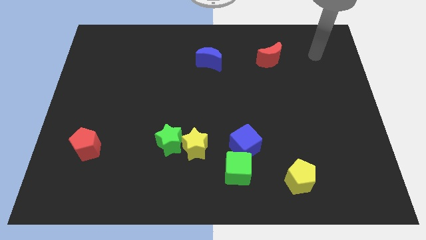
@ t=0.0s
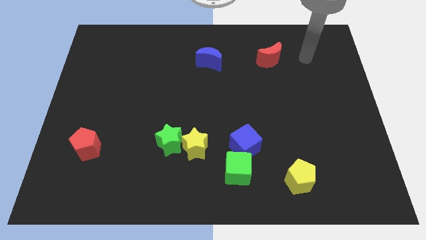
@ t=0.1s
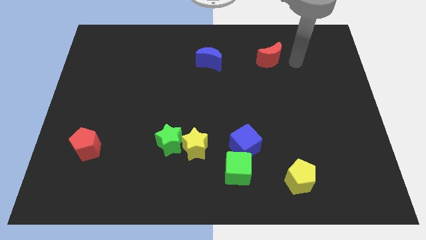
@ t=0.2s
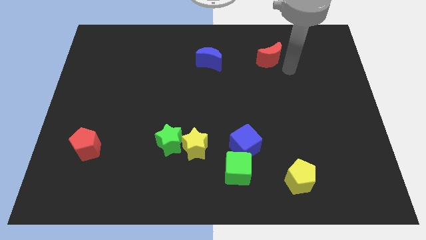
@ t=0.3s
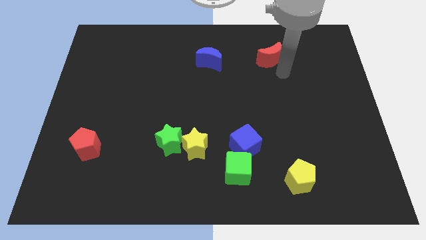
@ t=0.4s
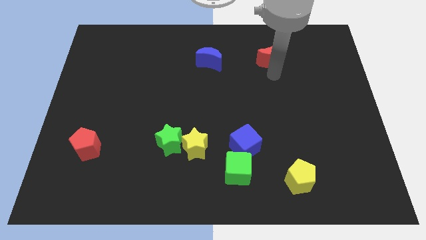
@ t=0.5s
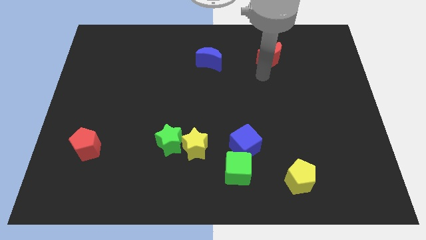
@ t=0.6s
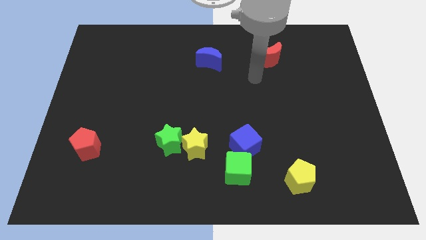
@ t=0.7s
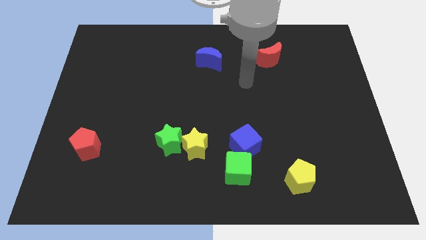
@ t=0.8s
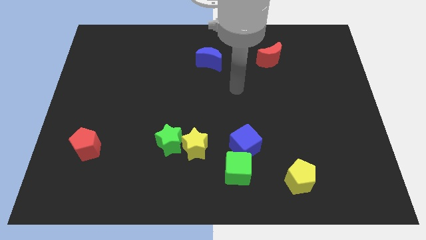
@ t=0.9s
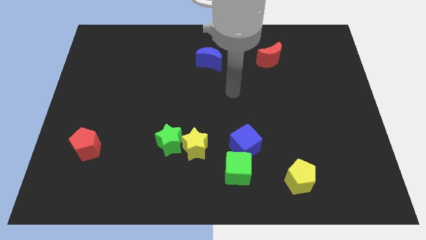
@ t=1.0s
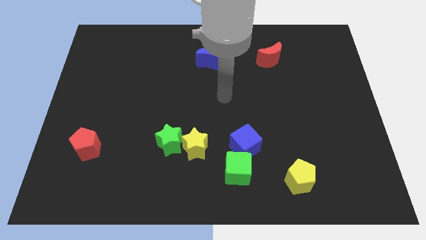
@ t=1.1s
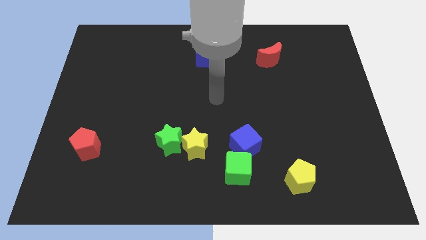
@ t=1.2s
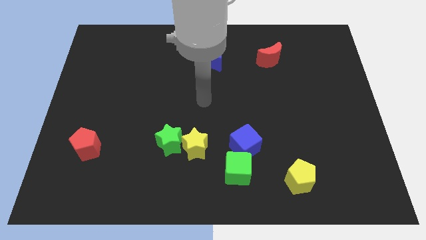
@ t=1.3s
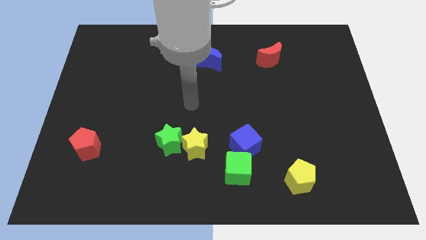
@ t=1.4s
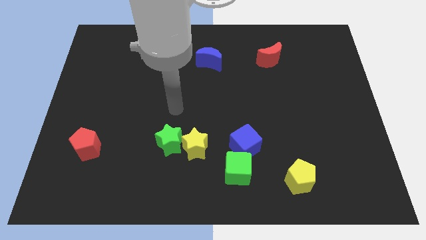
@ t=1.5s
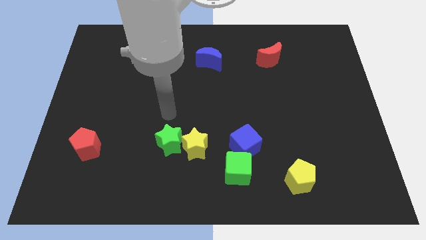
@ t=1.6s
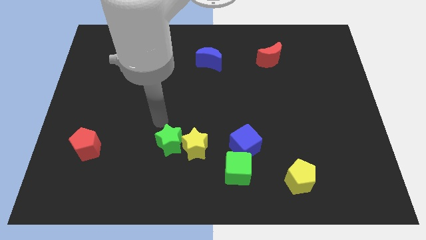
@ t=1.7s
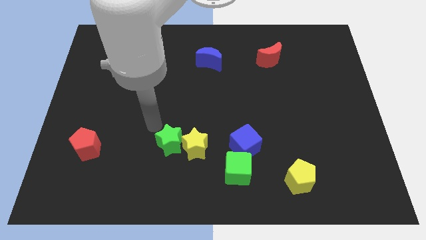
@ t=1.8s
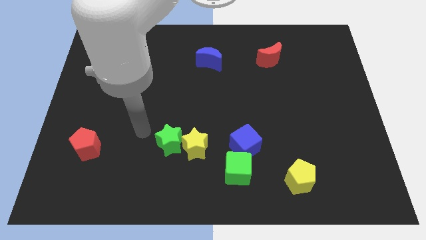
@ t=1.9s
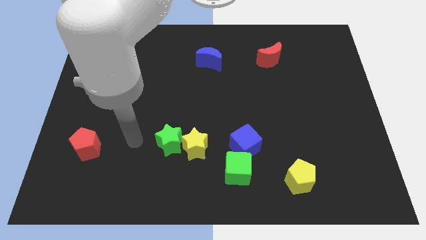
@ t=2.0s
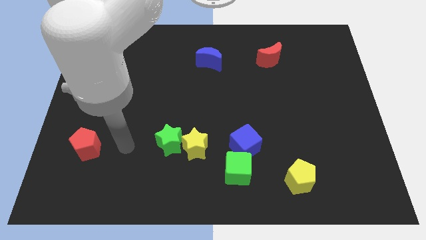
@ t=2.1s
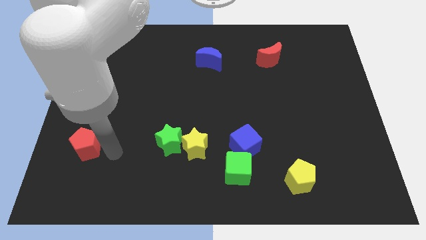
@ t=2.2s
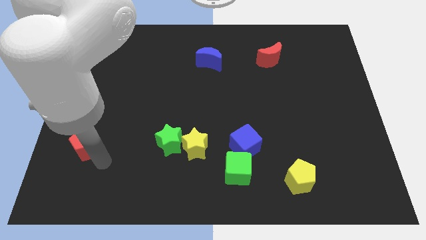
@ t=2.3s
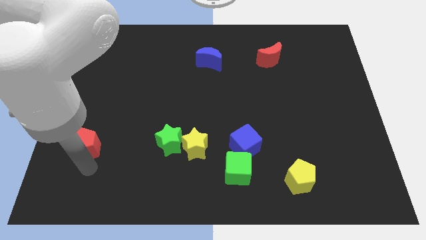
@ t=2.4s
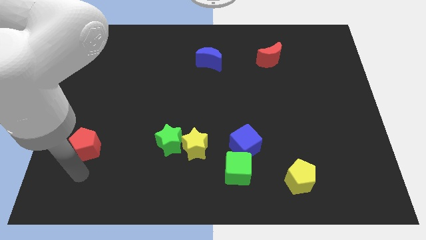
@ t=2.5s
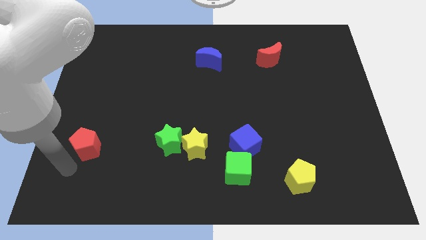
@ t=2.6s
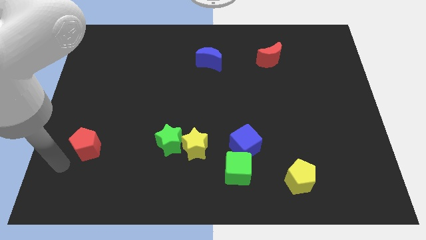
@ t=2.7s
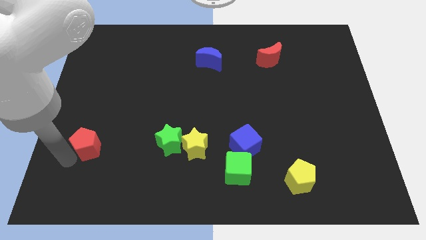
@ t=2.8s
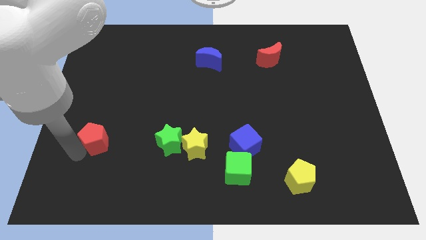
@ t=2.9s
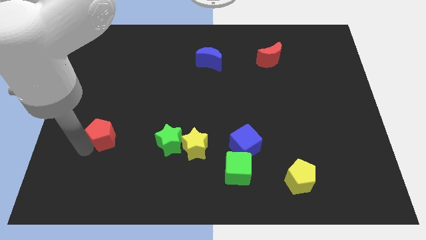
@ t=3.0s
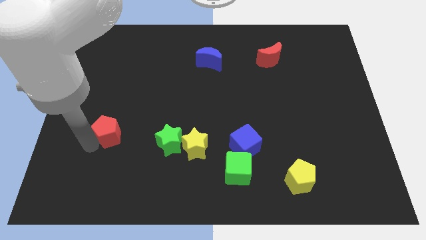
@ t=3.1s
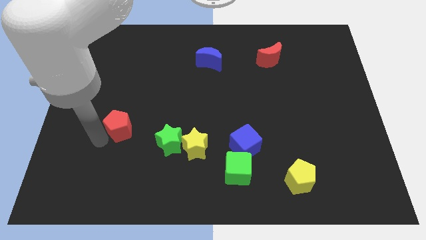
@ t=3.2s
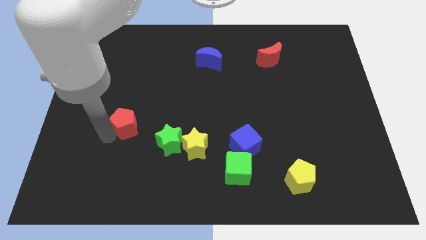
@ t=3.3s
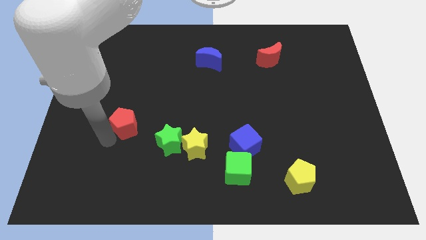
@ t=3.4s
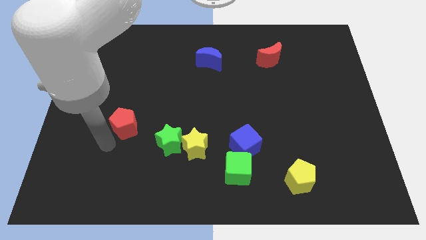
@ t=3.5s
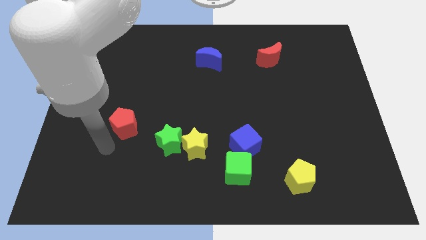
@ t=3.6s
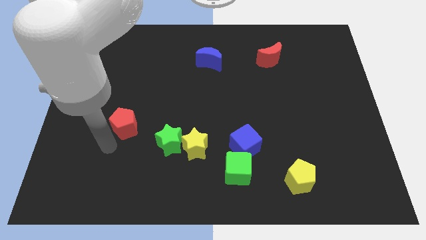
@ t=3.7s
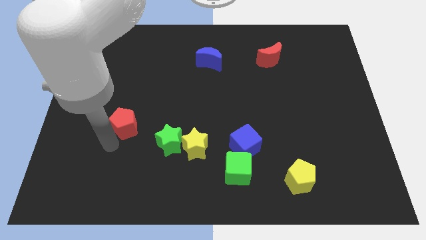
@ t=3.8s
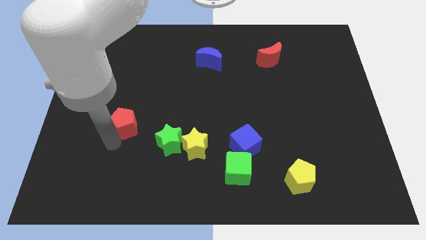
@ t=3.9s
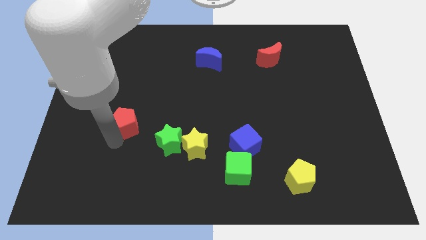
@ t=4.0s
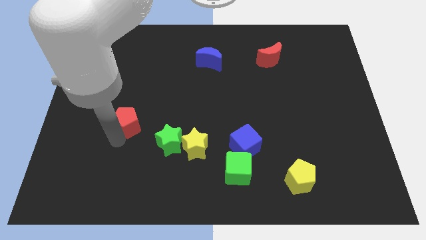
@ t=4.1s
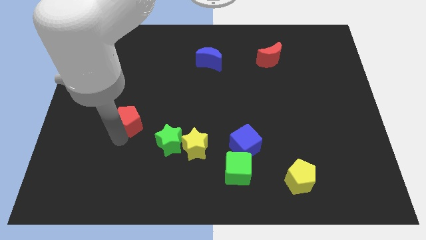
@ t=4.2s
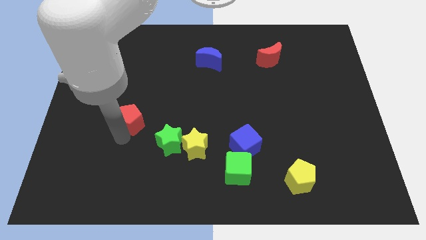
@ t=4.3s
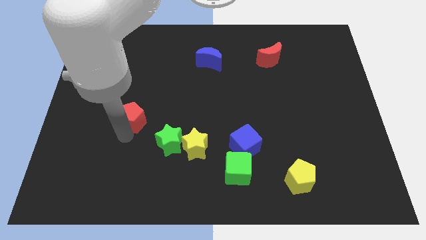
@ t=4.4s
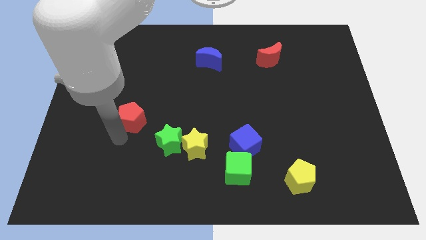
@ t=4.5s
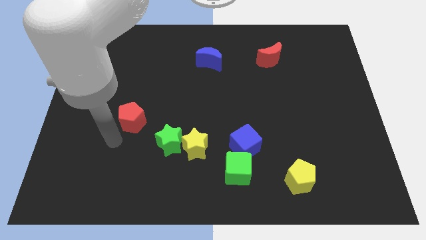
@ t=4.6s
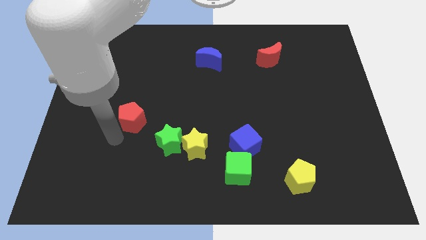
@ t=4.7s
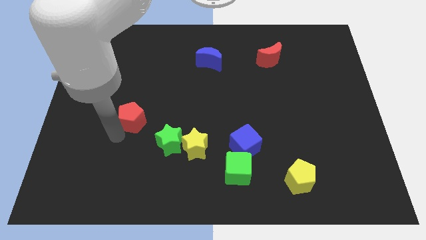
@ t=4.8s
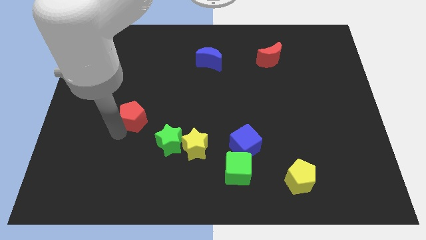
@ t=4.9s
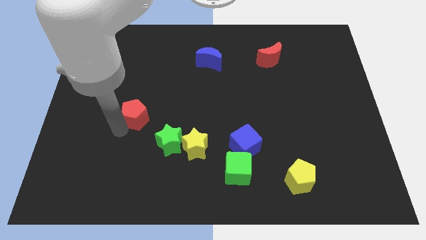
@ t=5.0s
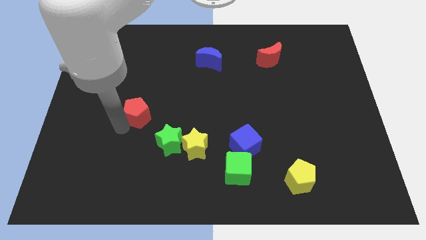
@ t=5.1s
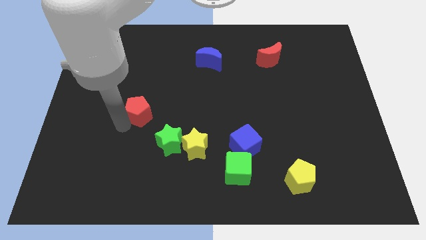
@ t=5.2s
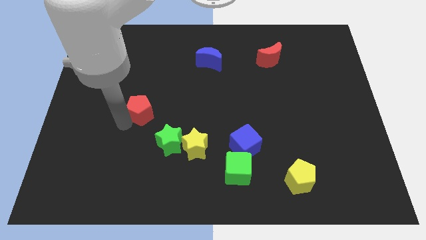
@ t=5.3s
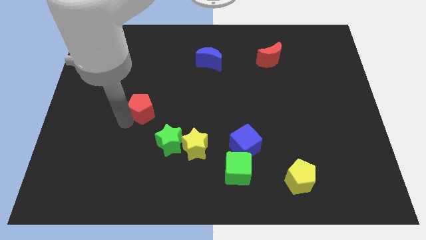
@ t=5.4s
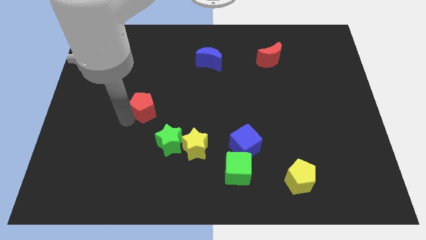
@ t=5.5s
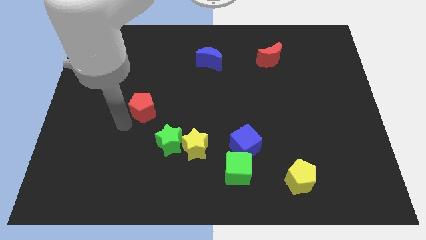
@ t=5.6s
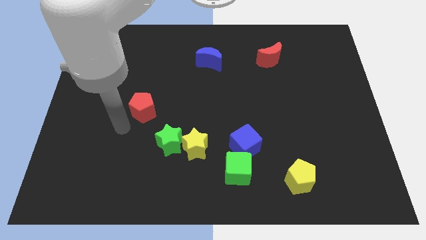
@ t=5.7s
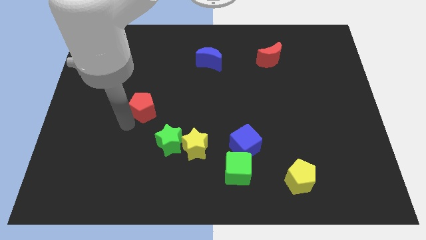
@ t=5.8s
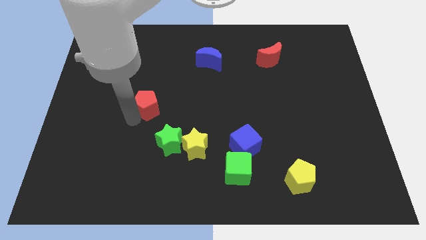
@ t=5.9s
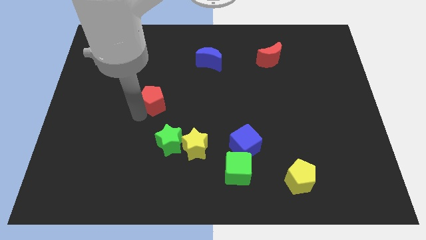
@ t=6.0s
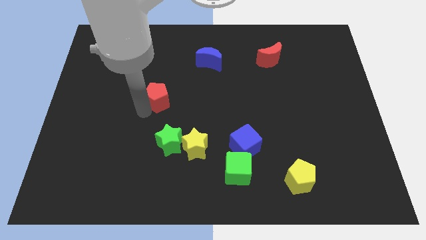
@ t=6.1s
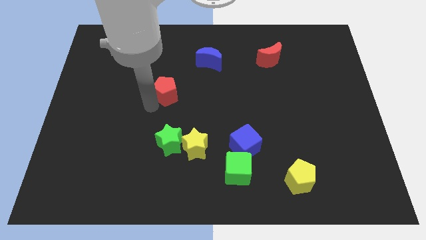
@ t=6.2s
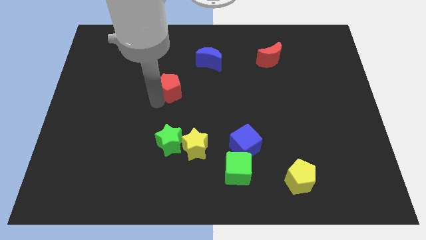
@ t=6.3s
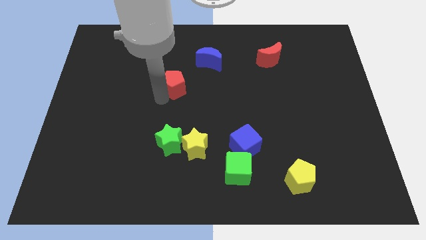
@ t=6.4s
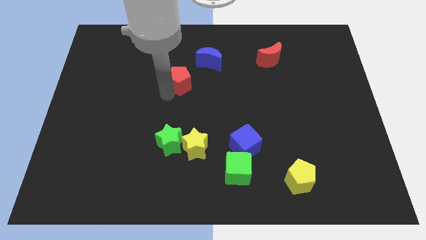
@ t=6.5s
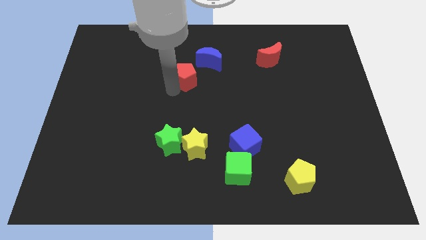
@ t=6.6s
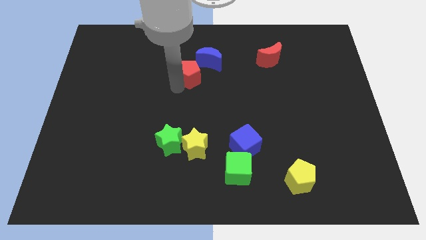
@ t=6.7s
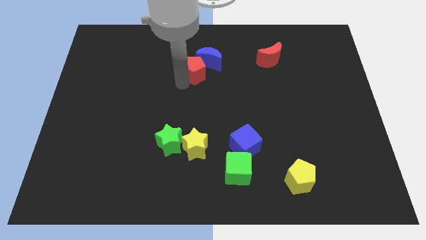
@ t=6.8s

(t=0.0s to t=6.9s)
put the red pentagon to the blue moon
